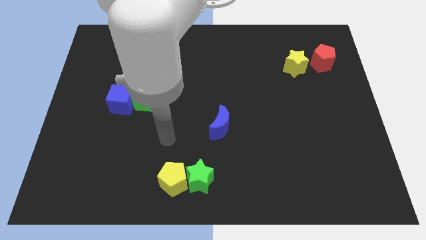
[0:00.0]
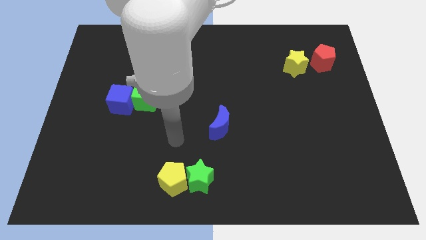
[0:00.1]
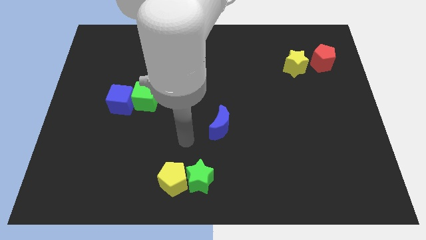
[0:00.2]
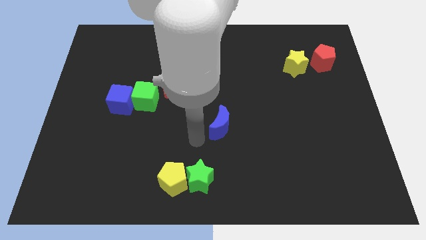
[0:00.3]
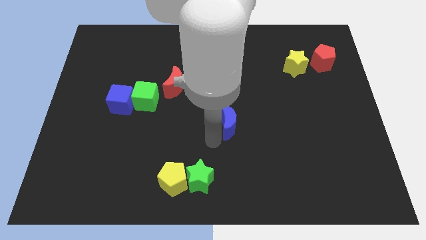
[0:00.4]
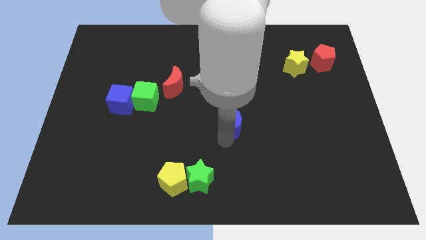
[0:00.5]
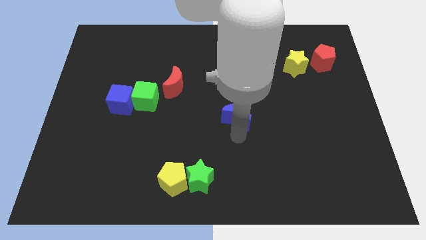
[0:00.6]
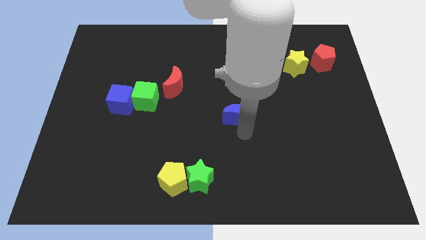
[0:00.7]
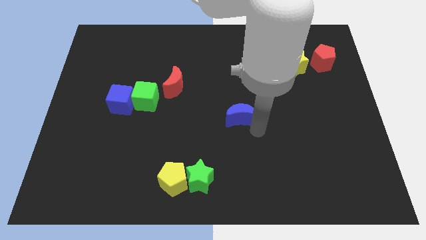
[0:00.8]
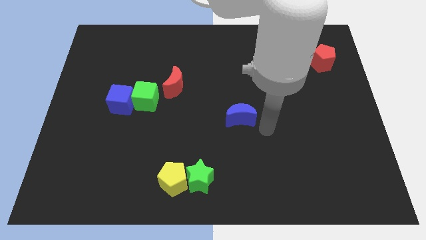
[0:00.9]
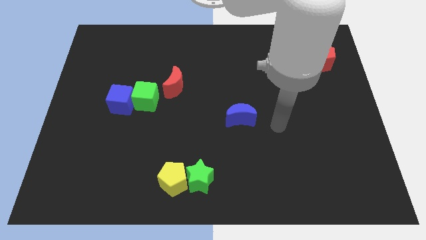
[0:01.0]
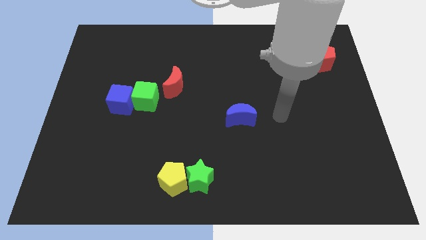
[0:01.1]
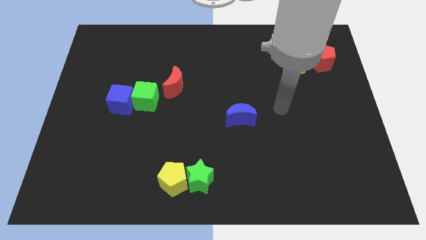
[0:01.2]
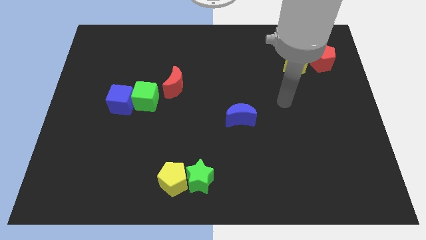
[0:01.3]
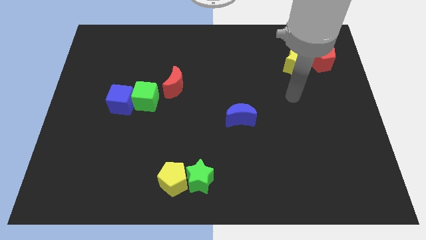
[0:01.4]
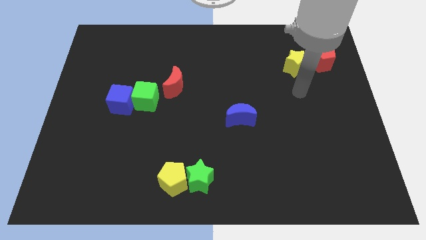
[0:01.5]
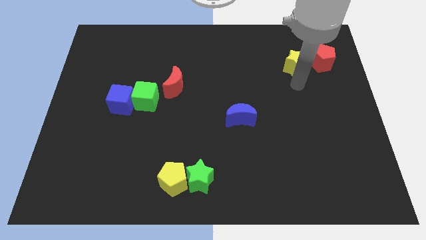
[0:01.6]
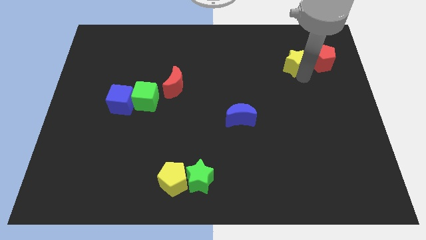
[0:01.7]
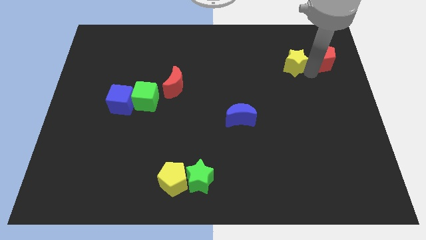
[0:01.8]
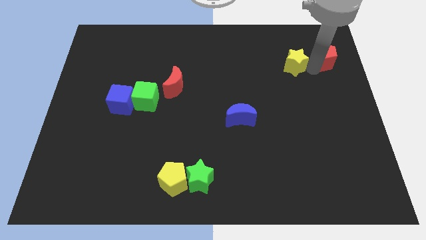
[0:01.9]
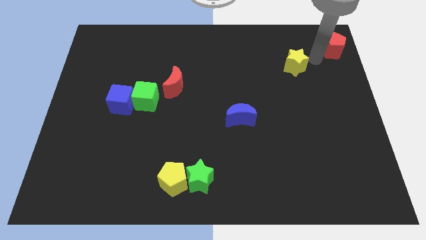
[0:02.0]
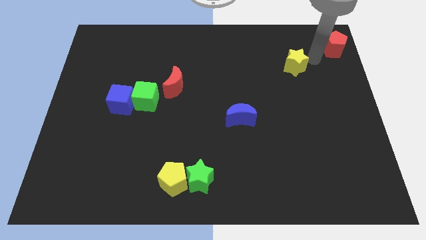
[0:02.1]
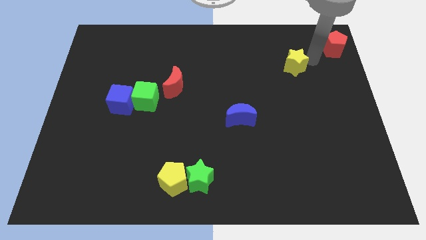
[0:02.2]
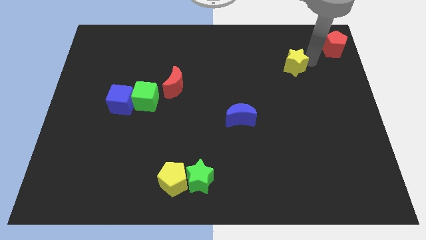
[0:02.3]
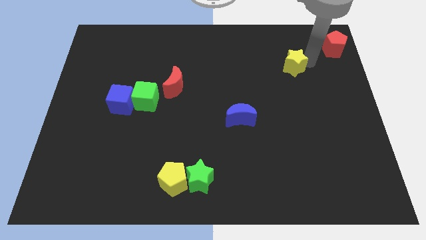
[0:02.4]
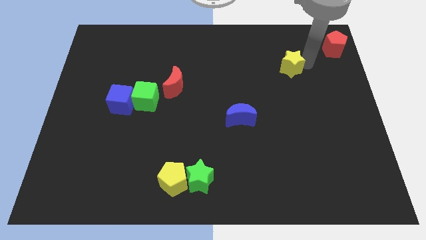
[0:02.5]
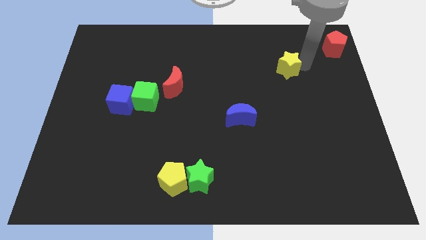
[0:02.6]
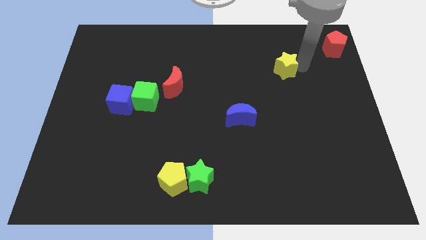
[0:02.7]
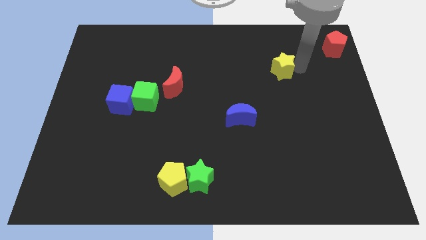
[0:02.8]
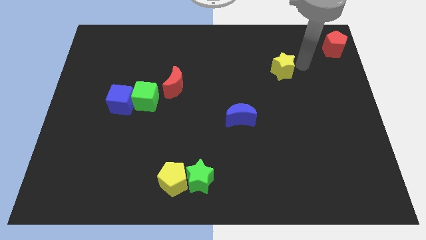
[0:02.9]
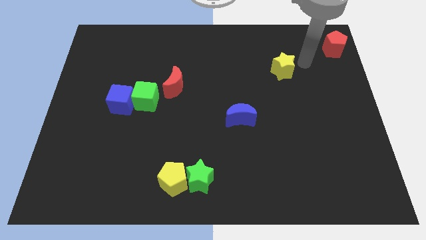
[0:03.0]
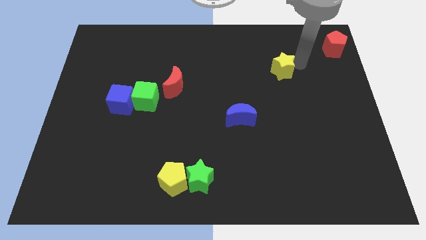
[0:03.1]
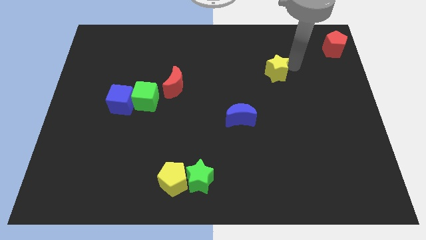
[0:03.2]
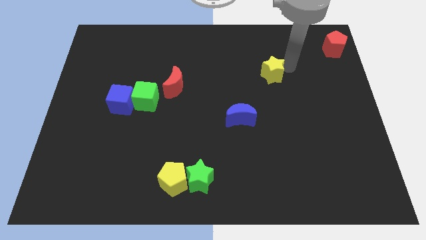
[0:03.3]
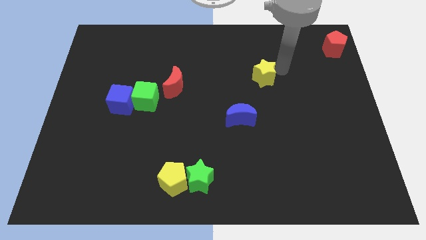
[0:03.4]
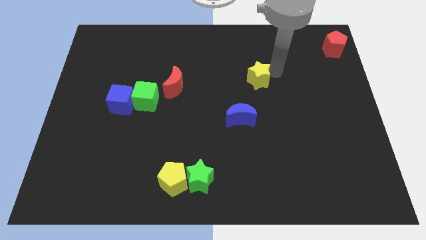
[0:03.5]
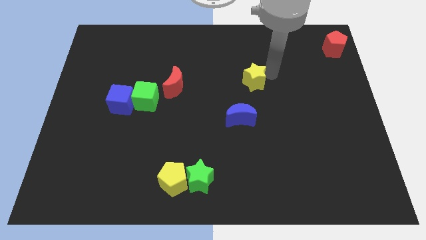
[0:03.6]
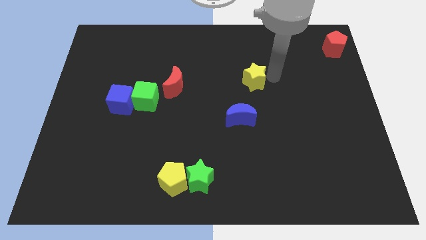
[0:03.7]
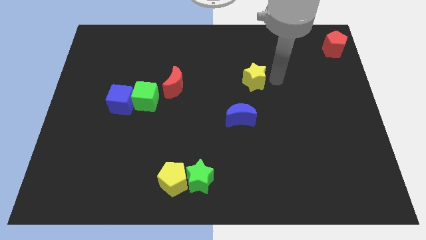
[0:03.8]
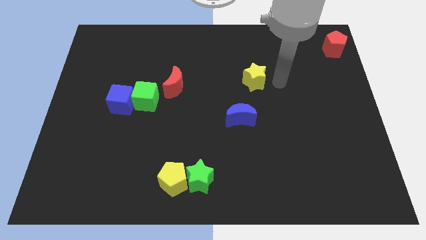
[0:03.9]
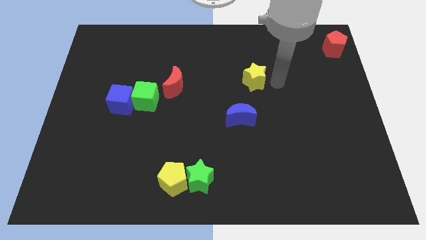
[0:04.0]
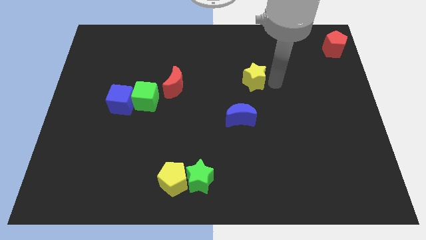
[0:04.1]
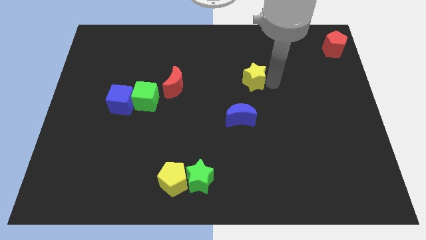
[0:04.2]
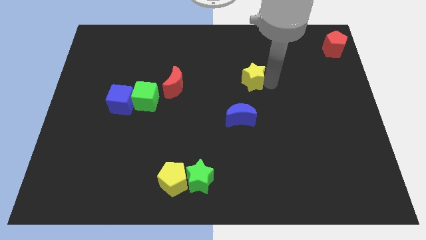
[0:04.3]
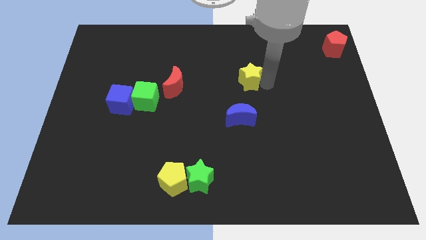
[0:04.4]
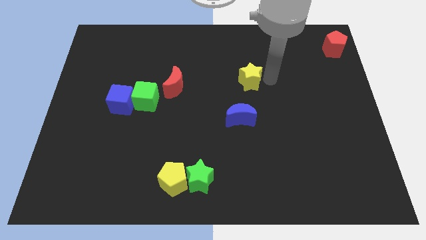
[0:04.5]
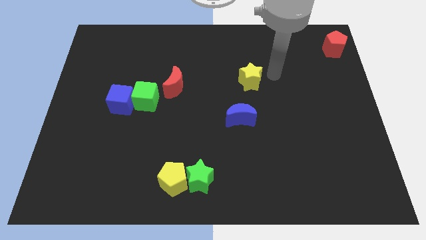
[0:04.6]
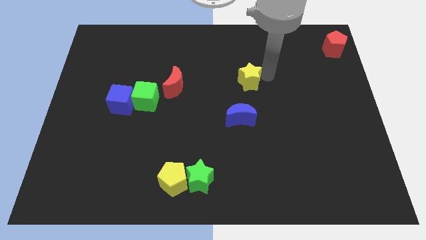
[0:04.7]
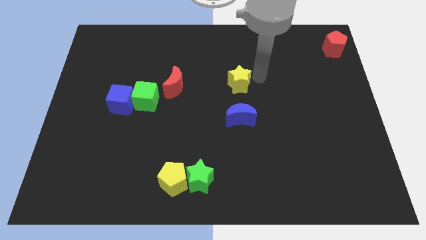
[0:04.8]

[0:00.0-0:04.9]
push the yellow star to the right of the red moon

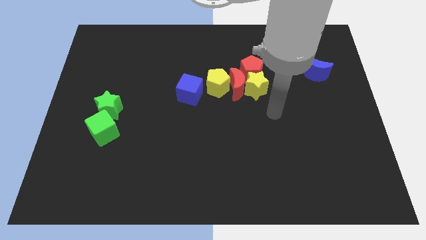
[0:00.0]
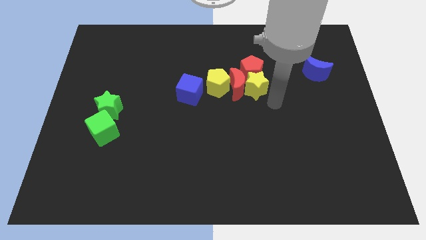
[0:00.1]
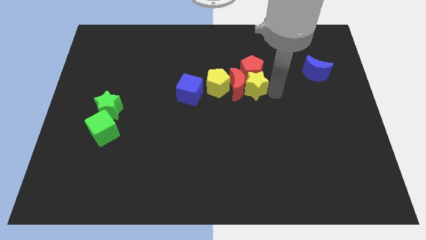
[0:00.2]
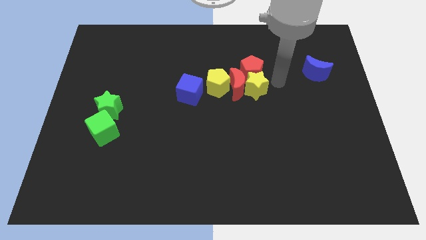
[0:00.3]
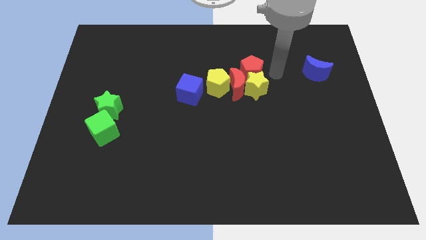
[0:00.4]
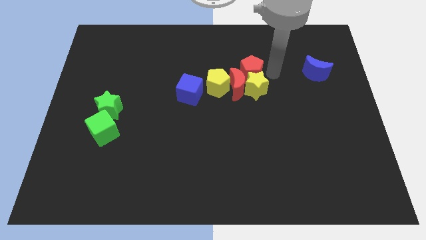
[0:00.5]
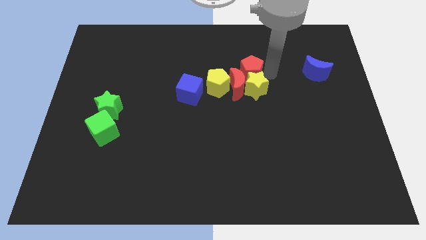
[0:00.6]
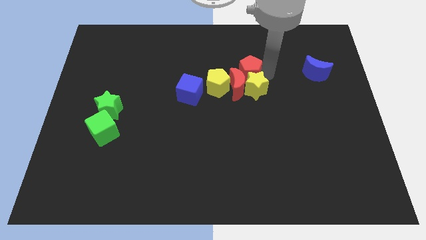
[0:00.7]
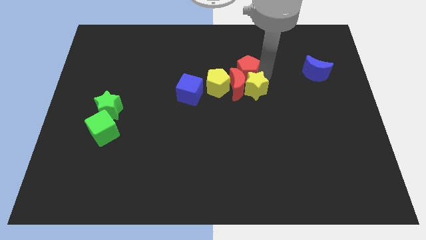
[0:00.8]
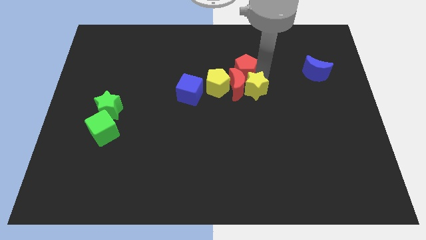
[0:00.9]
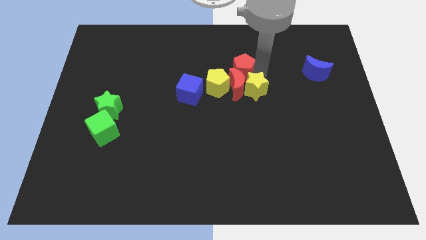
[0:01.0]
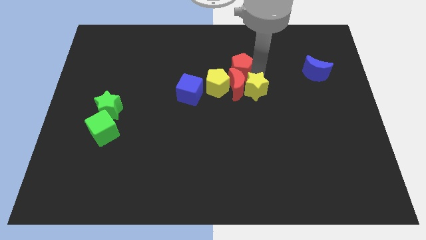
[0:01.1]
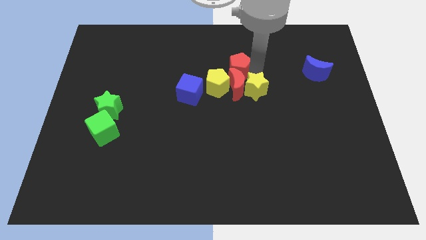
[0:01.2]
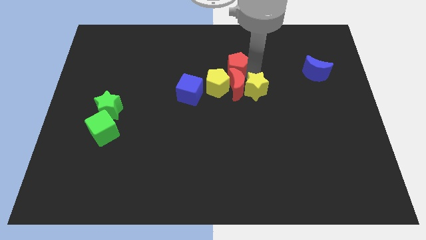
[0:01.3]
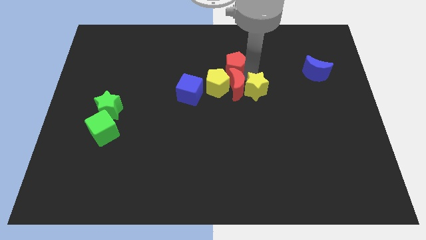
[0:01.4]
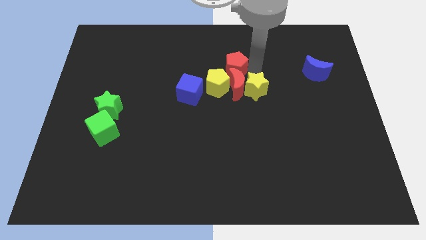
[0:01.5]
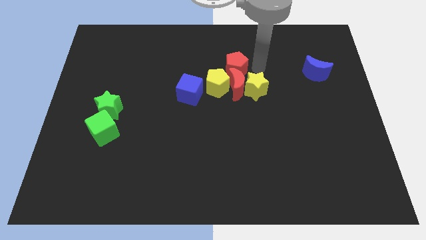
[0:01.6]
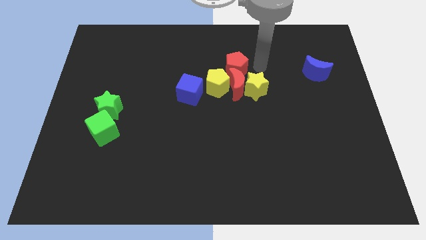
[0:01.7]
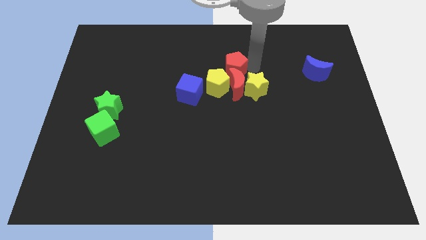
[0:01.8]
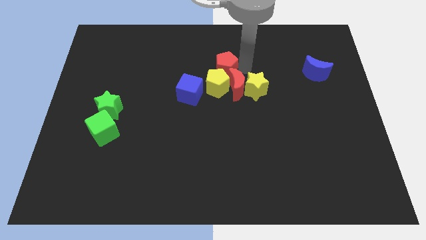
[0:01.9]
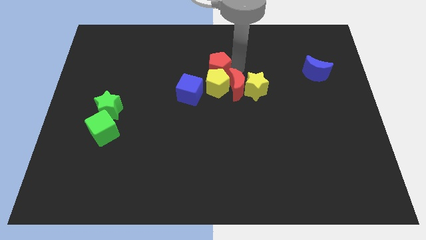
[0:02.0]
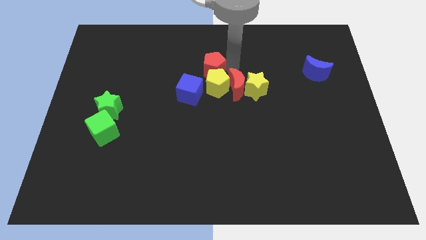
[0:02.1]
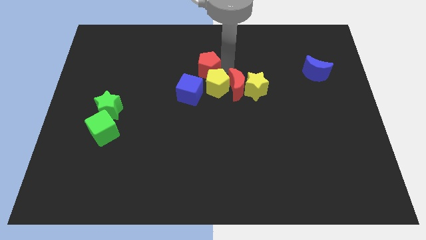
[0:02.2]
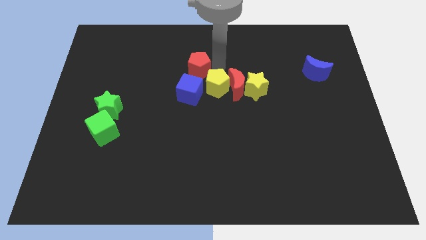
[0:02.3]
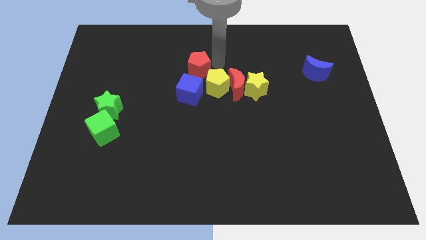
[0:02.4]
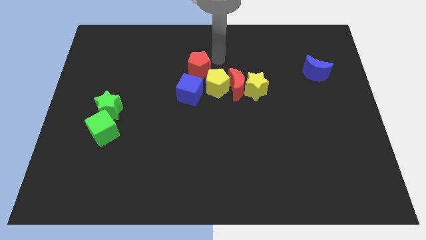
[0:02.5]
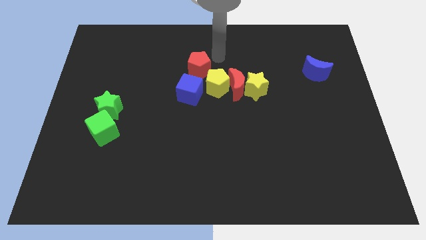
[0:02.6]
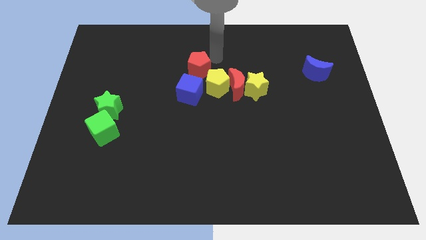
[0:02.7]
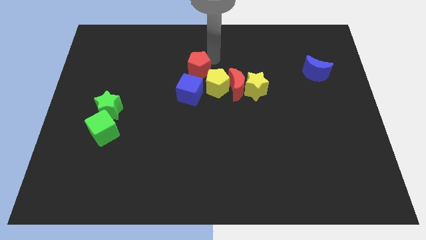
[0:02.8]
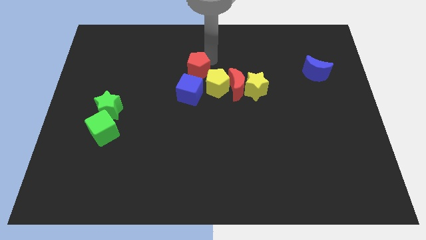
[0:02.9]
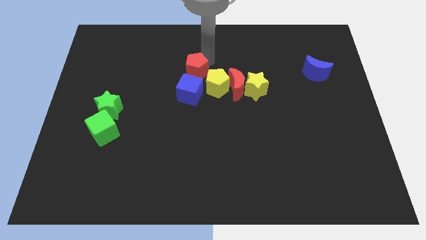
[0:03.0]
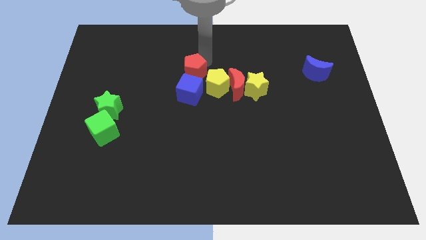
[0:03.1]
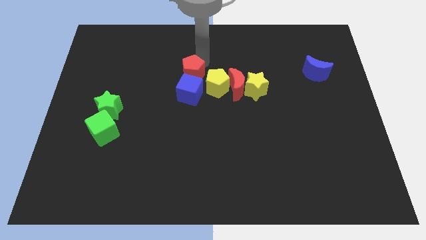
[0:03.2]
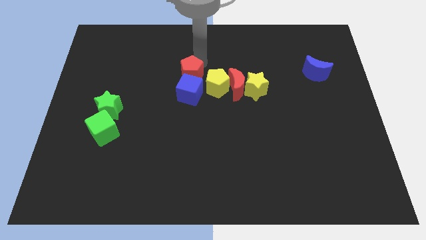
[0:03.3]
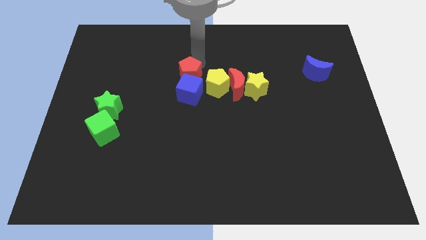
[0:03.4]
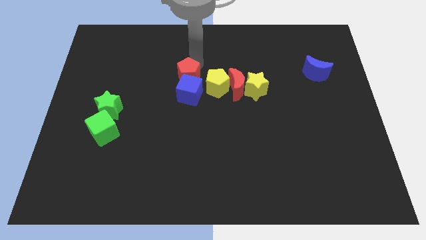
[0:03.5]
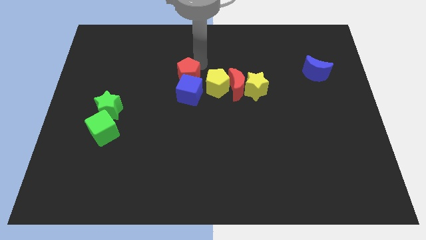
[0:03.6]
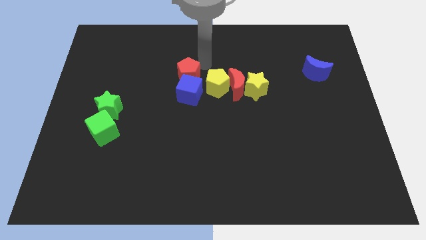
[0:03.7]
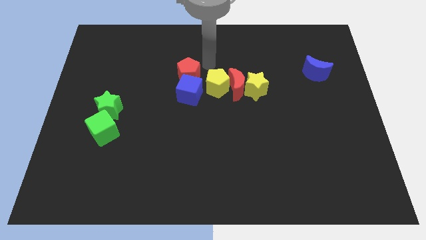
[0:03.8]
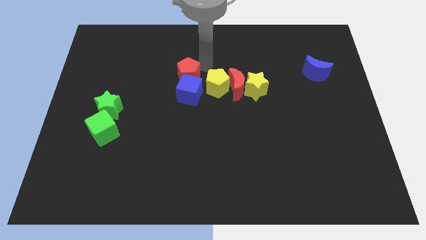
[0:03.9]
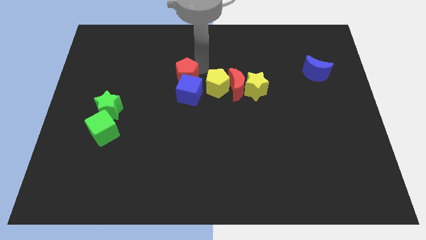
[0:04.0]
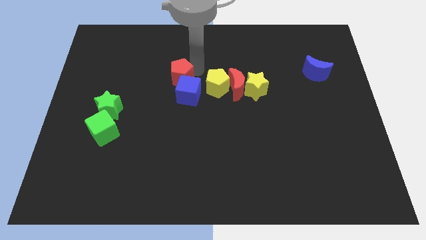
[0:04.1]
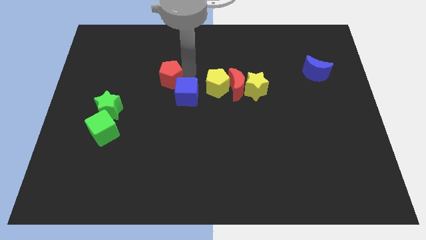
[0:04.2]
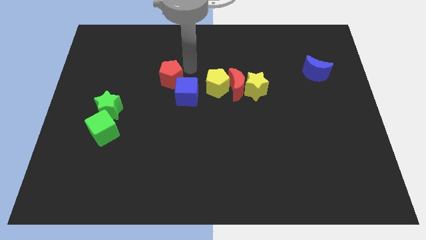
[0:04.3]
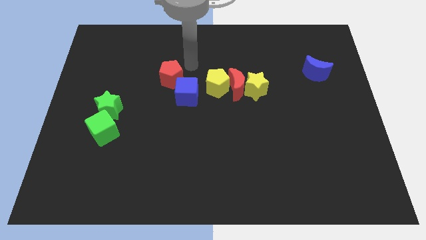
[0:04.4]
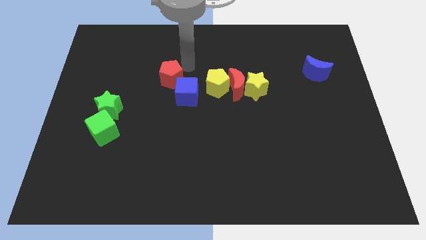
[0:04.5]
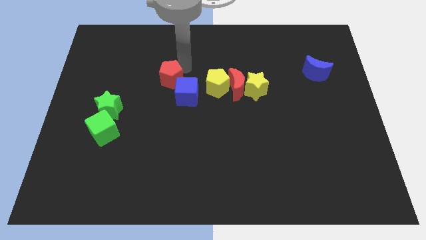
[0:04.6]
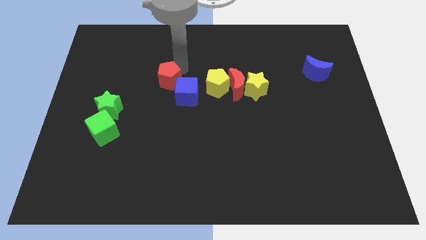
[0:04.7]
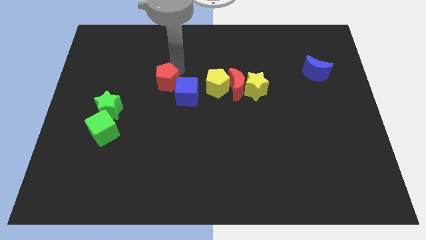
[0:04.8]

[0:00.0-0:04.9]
push the red pentagon left of the blue cube
